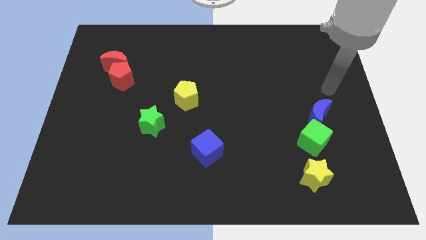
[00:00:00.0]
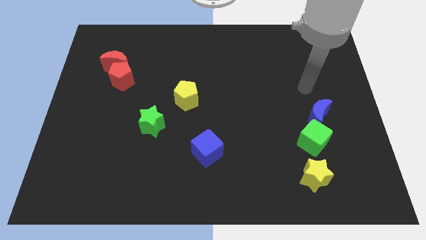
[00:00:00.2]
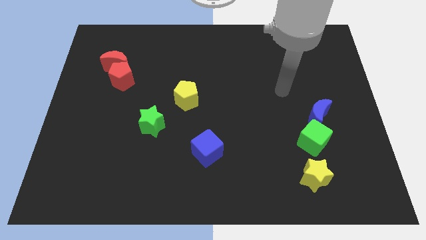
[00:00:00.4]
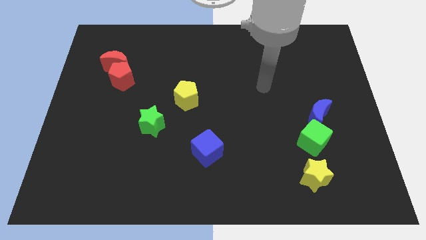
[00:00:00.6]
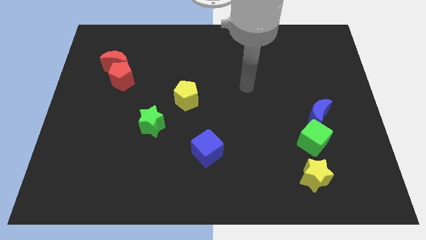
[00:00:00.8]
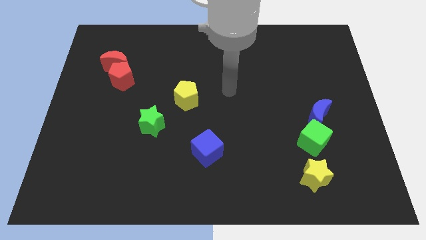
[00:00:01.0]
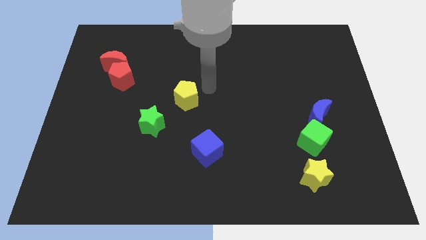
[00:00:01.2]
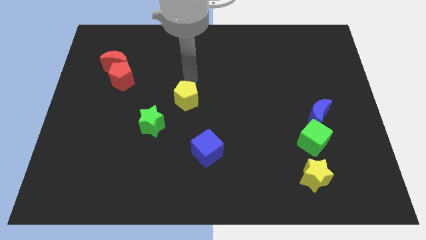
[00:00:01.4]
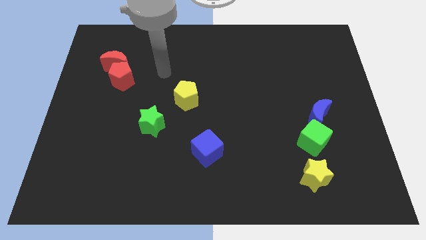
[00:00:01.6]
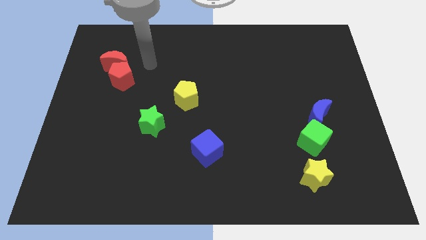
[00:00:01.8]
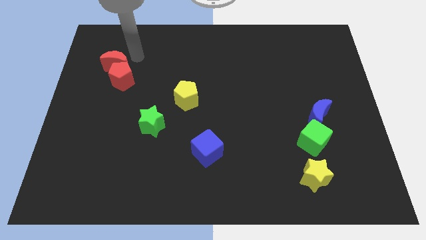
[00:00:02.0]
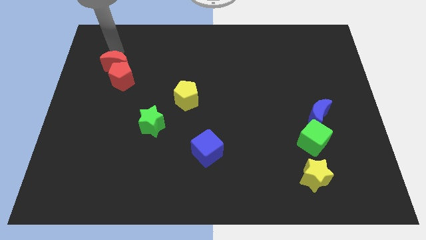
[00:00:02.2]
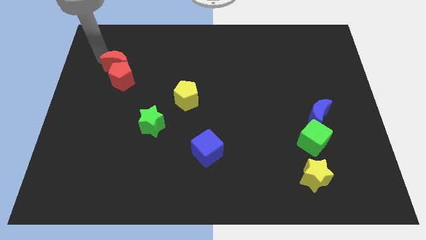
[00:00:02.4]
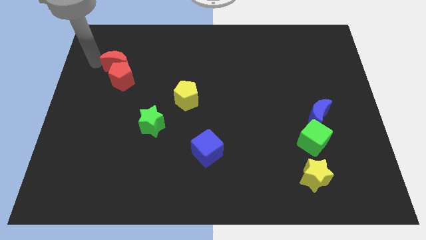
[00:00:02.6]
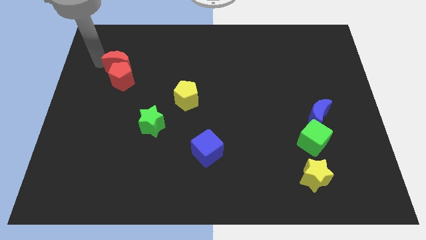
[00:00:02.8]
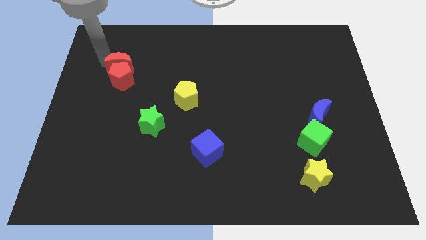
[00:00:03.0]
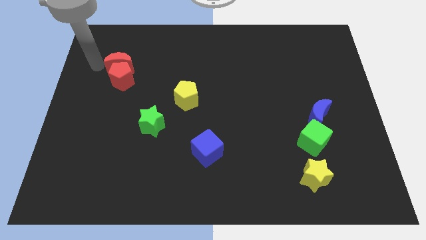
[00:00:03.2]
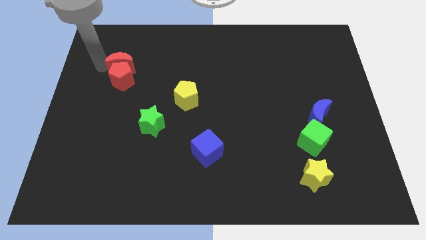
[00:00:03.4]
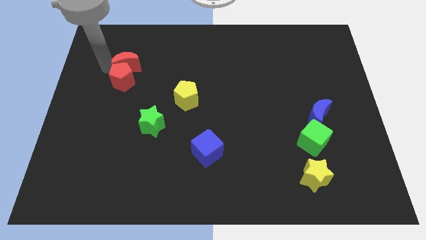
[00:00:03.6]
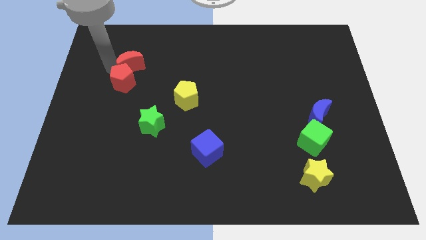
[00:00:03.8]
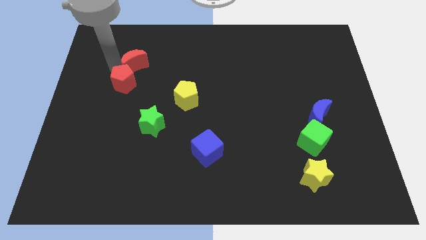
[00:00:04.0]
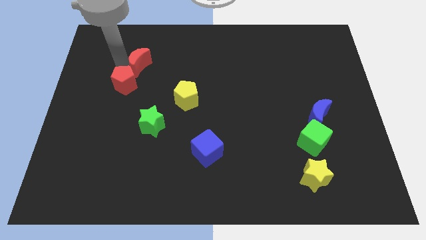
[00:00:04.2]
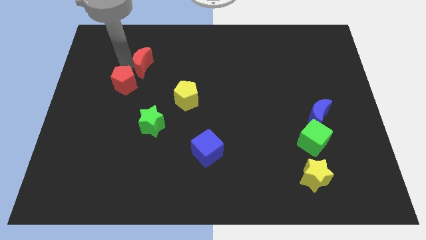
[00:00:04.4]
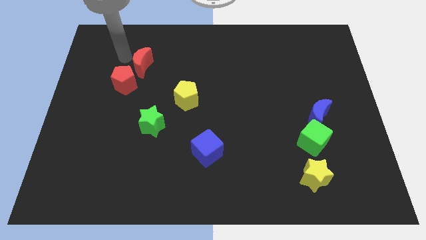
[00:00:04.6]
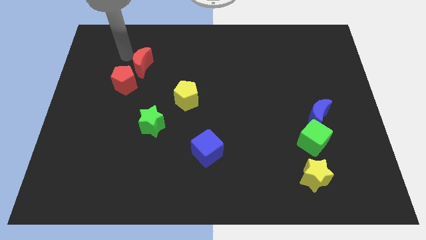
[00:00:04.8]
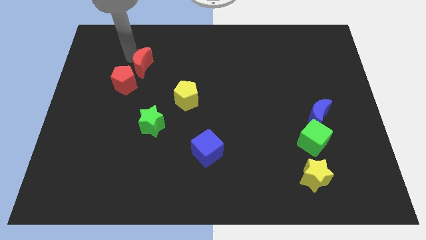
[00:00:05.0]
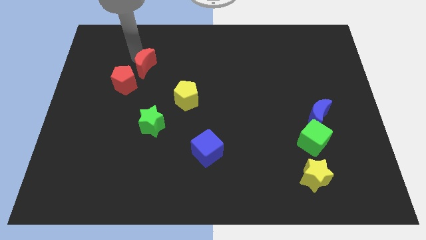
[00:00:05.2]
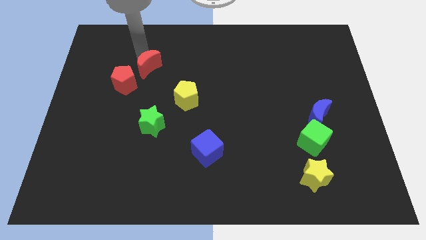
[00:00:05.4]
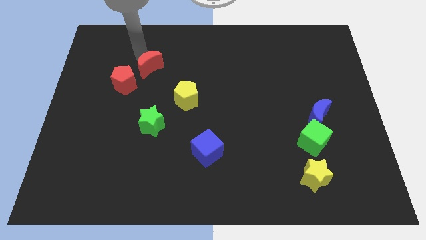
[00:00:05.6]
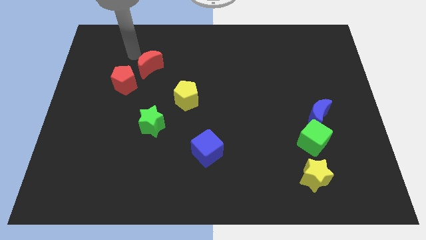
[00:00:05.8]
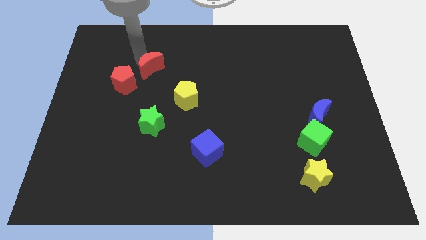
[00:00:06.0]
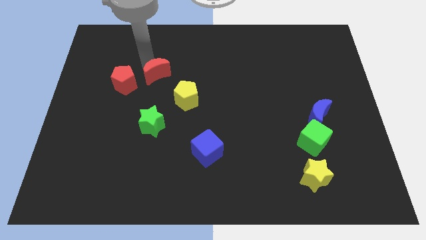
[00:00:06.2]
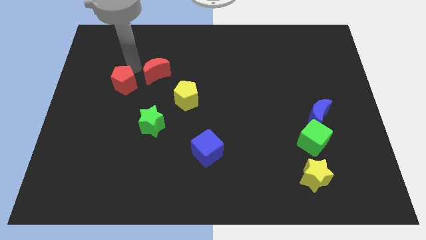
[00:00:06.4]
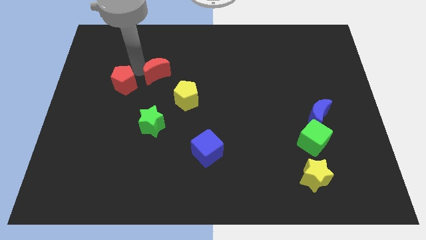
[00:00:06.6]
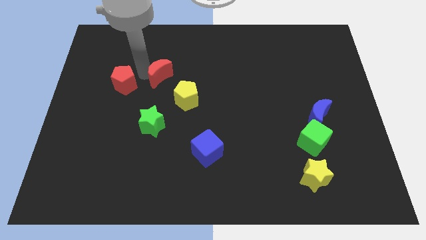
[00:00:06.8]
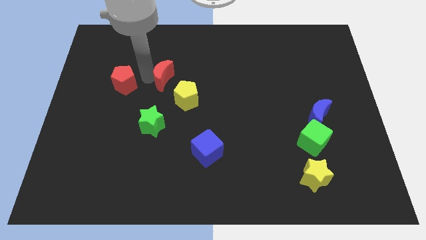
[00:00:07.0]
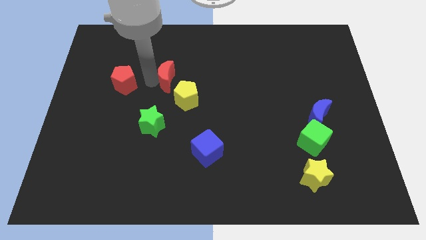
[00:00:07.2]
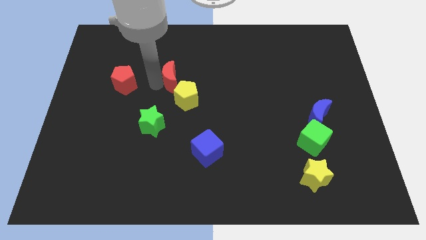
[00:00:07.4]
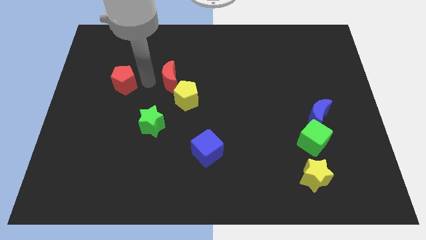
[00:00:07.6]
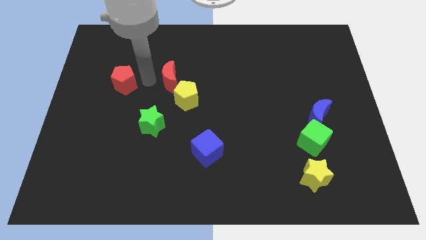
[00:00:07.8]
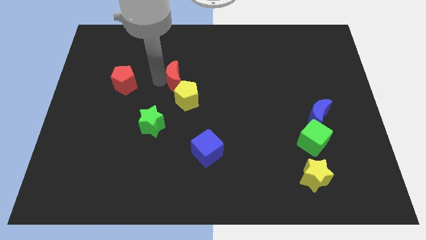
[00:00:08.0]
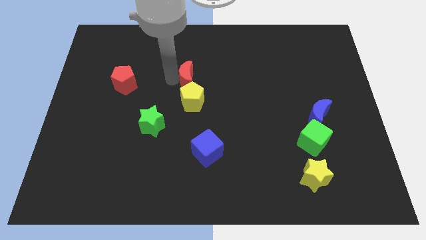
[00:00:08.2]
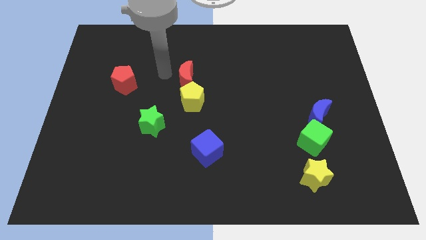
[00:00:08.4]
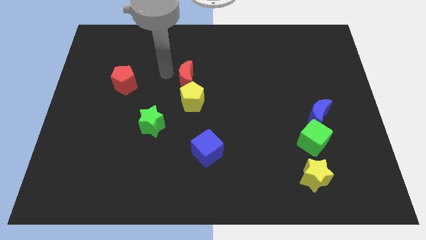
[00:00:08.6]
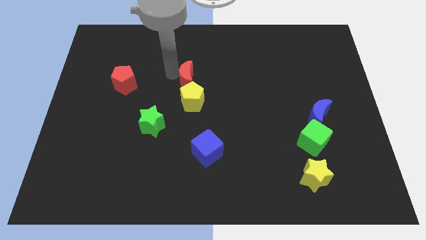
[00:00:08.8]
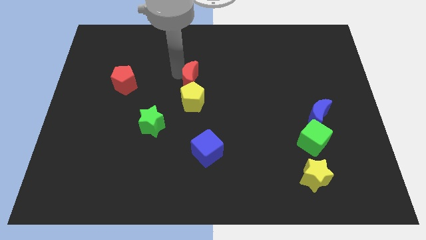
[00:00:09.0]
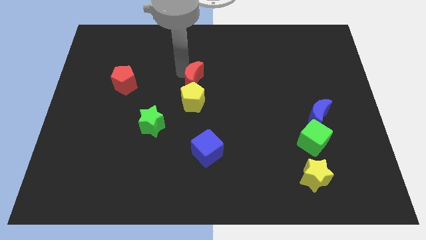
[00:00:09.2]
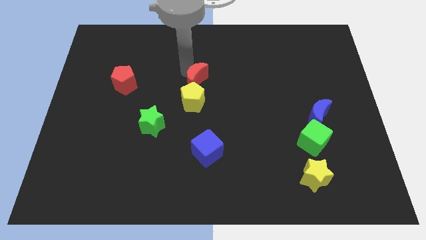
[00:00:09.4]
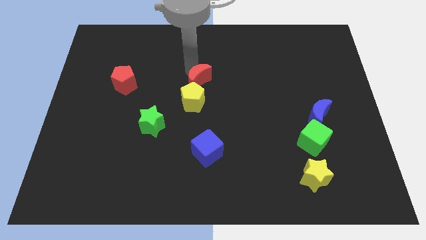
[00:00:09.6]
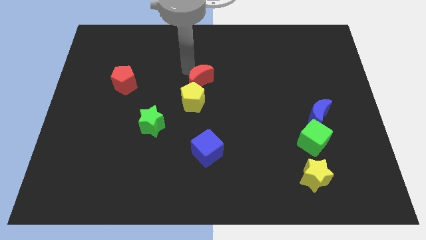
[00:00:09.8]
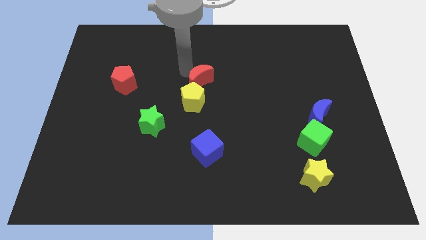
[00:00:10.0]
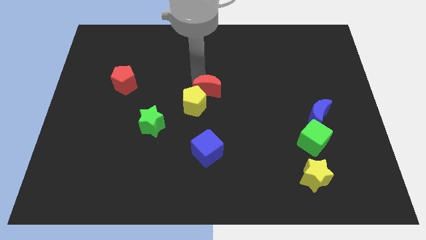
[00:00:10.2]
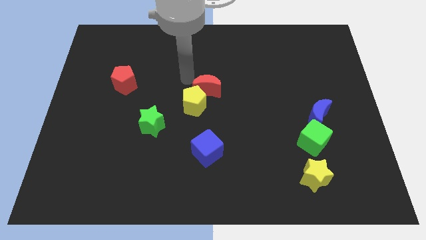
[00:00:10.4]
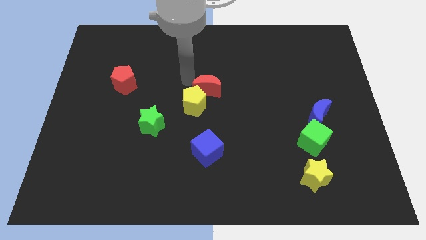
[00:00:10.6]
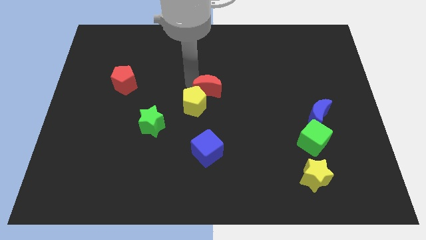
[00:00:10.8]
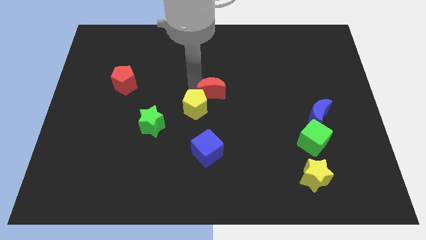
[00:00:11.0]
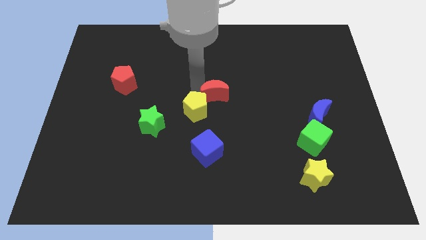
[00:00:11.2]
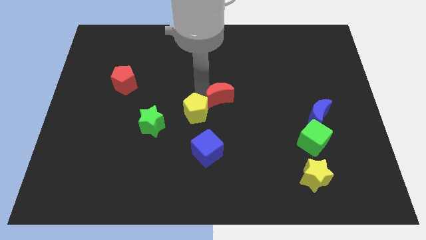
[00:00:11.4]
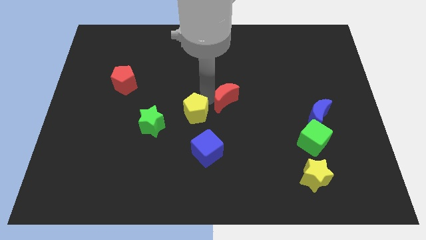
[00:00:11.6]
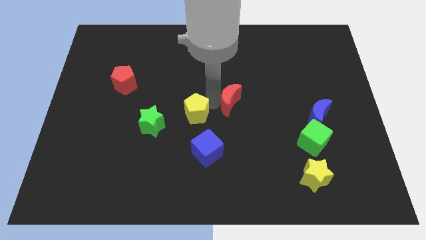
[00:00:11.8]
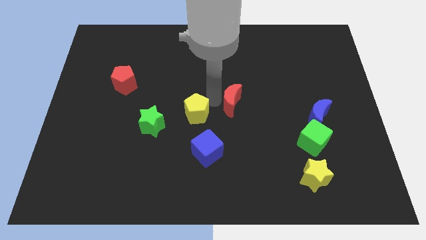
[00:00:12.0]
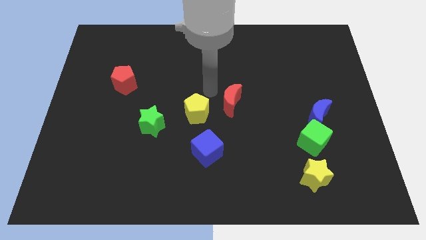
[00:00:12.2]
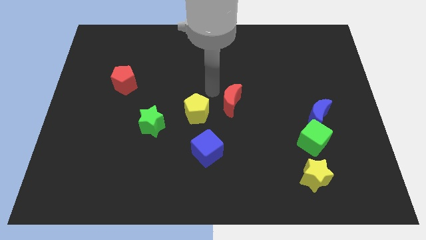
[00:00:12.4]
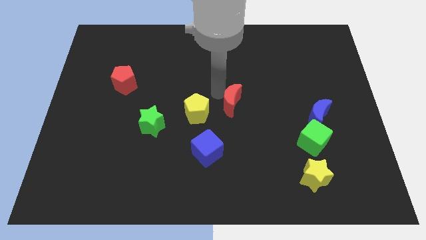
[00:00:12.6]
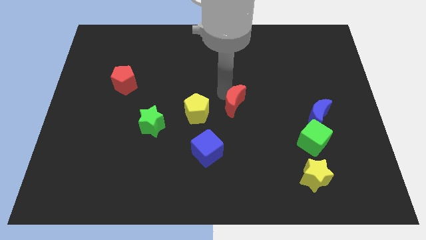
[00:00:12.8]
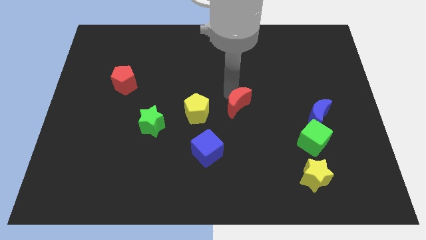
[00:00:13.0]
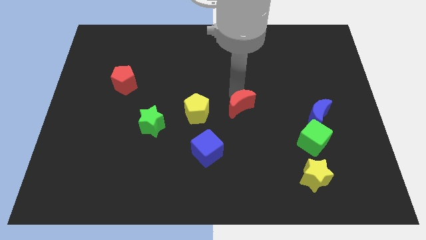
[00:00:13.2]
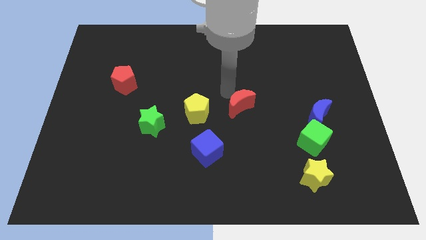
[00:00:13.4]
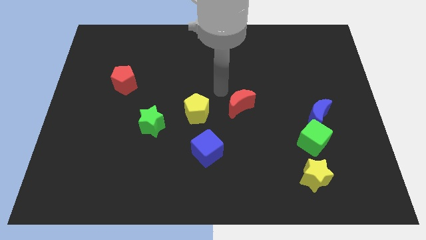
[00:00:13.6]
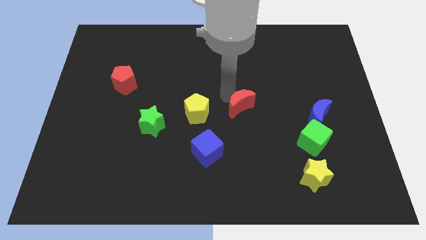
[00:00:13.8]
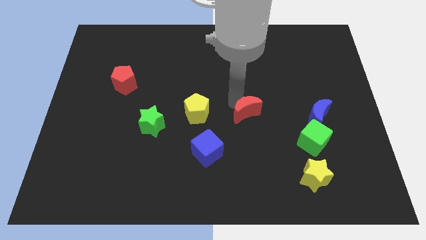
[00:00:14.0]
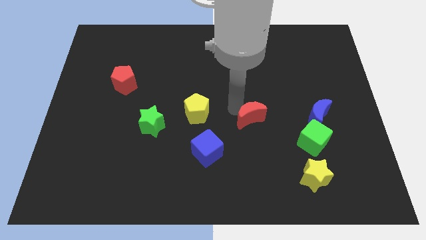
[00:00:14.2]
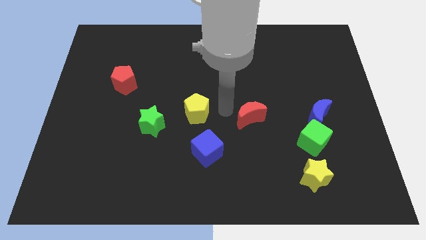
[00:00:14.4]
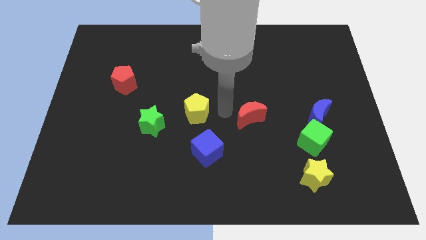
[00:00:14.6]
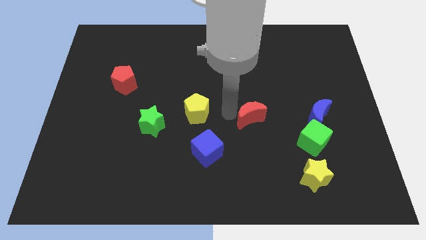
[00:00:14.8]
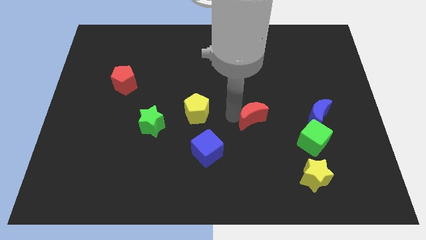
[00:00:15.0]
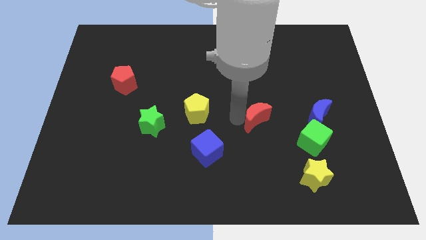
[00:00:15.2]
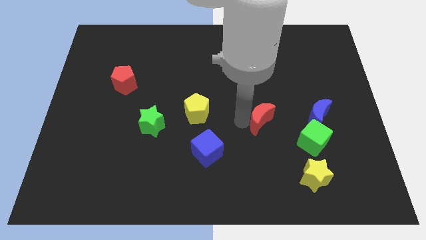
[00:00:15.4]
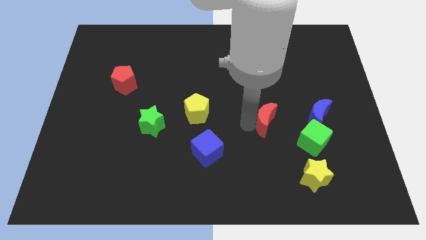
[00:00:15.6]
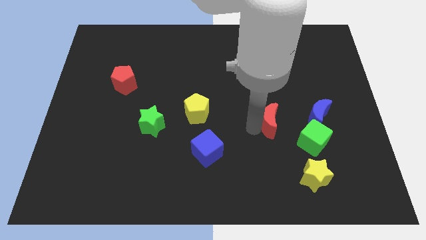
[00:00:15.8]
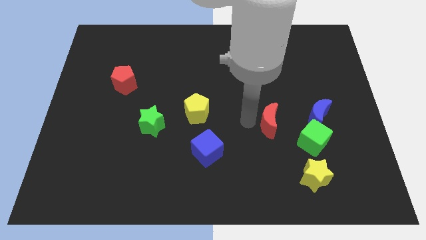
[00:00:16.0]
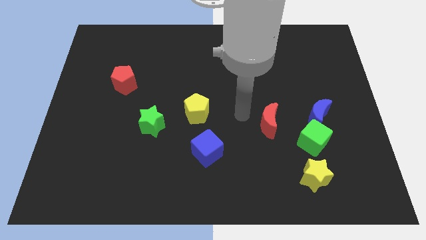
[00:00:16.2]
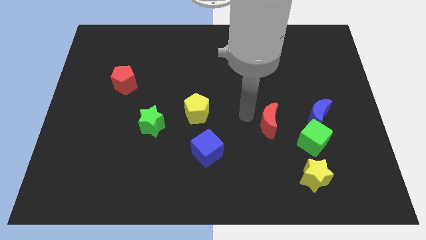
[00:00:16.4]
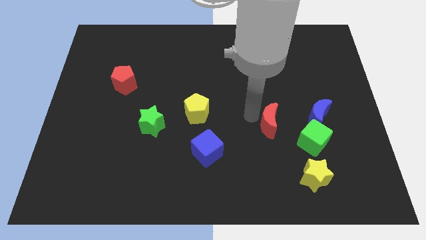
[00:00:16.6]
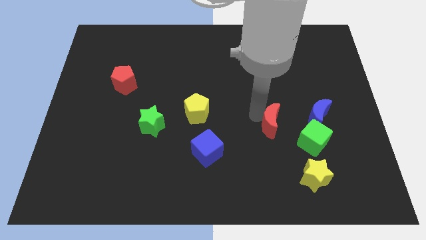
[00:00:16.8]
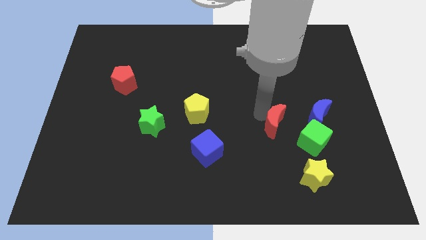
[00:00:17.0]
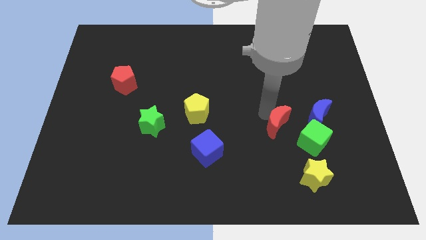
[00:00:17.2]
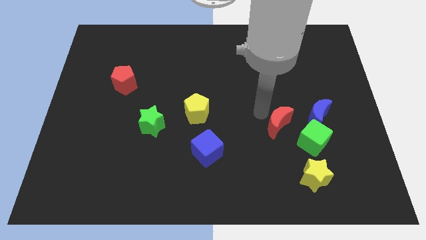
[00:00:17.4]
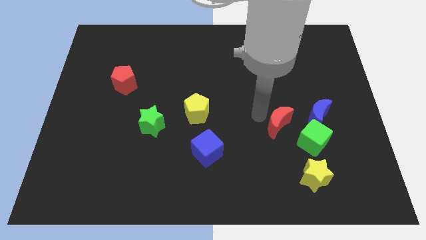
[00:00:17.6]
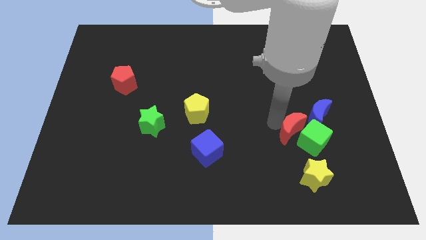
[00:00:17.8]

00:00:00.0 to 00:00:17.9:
move the red moon to the green cube
